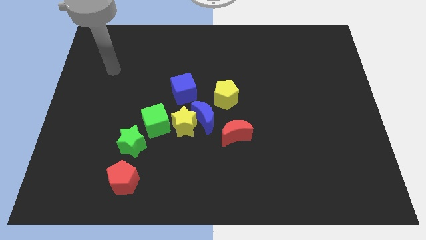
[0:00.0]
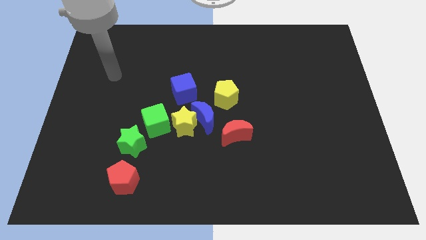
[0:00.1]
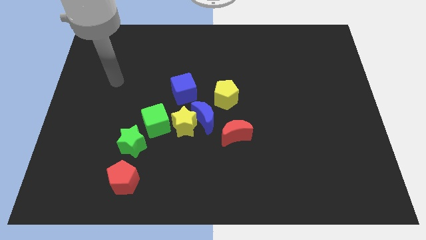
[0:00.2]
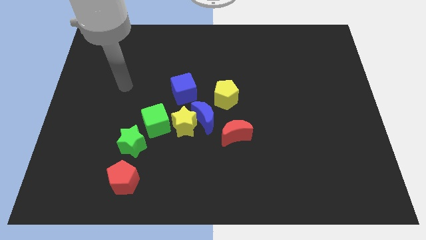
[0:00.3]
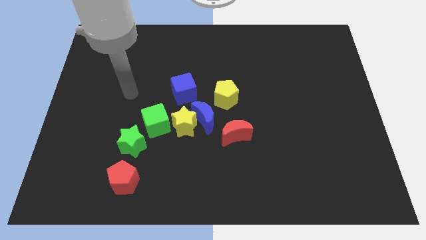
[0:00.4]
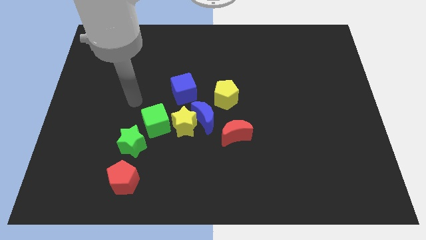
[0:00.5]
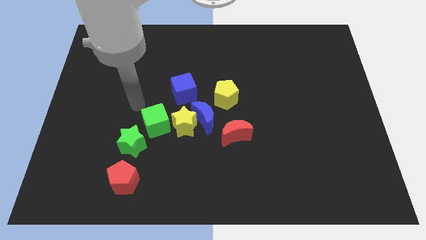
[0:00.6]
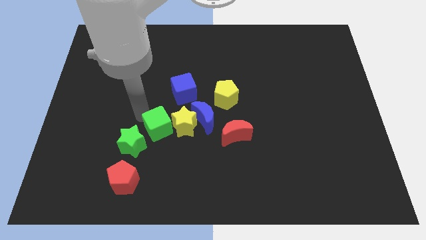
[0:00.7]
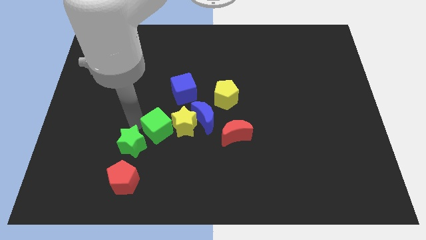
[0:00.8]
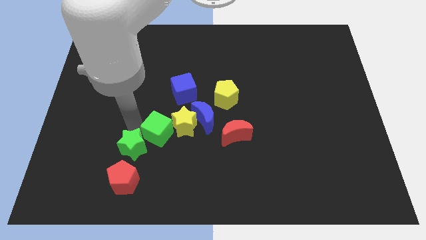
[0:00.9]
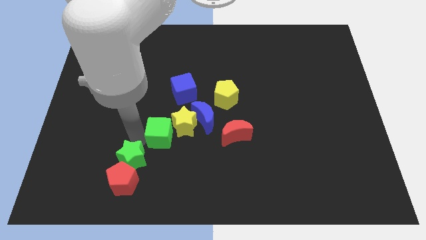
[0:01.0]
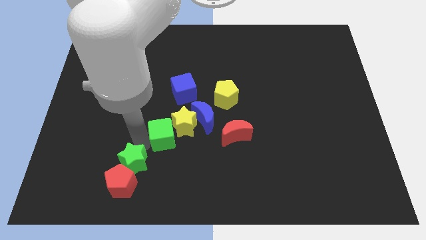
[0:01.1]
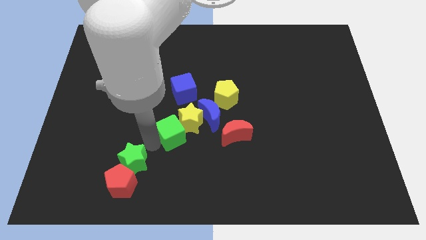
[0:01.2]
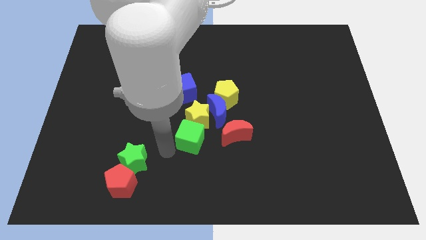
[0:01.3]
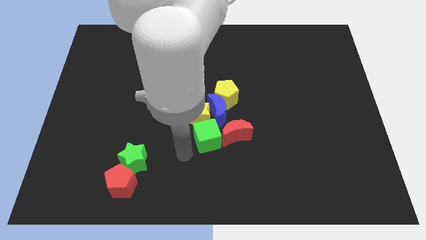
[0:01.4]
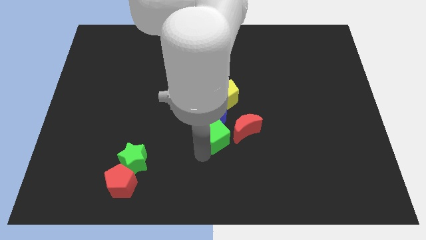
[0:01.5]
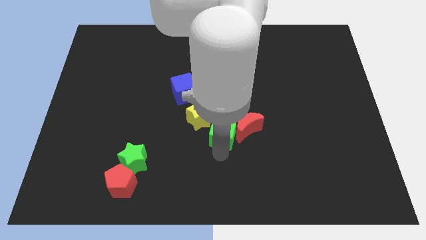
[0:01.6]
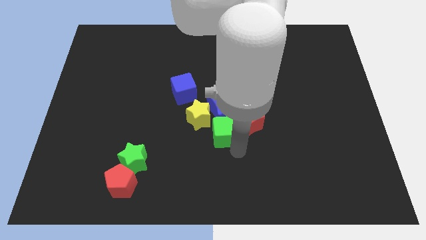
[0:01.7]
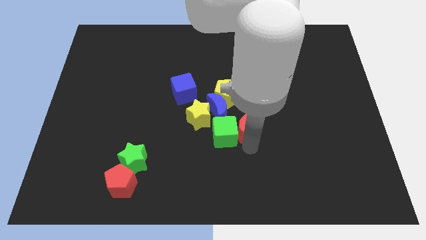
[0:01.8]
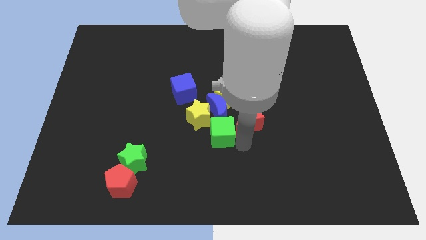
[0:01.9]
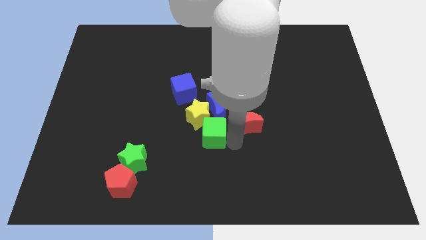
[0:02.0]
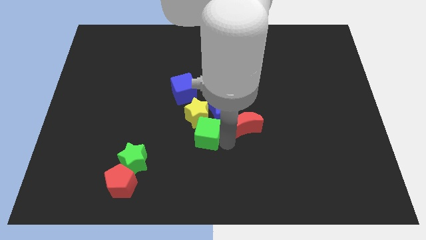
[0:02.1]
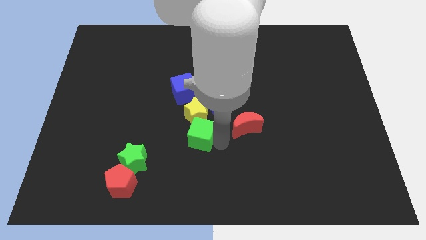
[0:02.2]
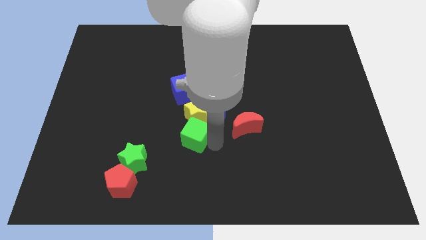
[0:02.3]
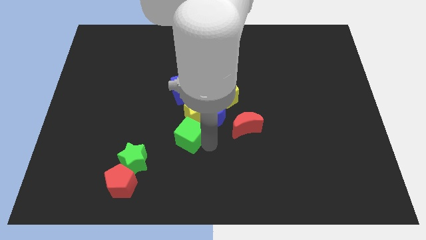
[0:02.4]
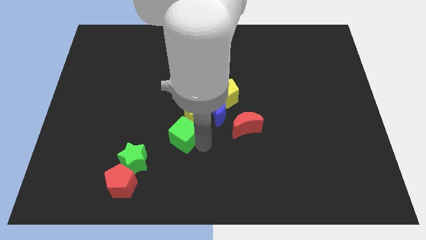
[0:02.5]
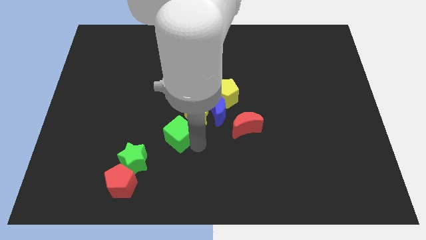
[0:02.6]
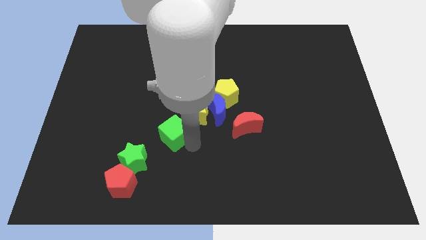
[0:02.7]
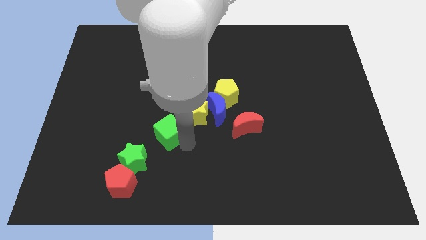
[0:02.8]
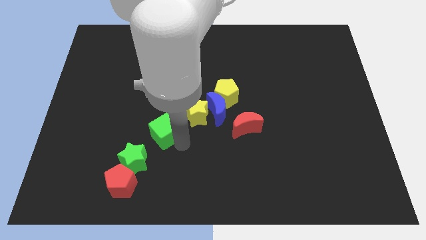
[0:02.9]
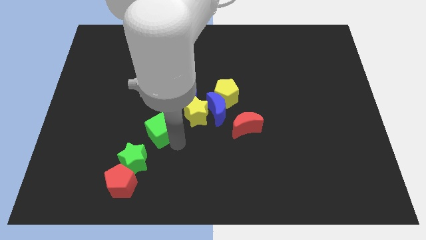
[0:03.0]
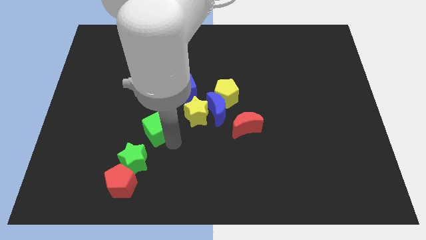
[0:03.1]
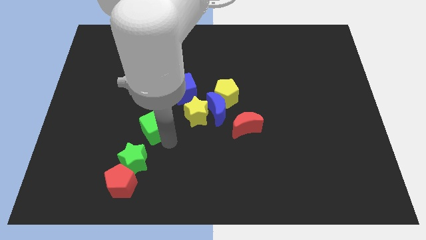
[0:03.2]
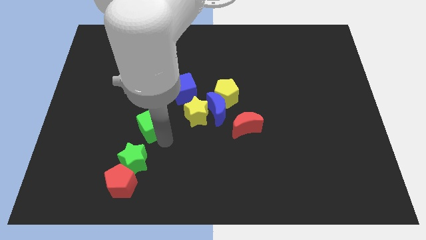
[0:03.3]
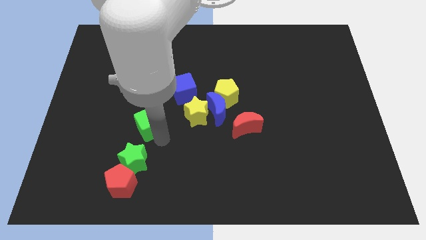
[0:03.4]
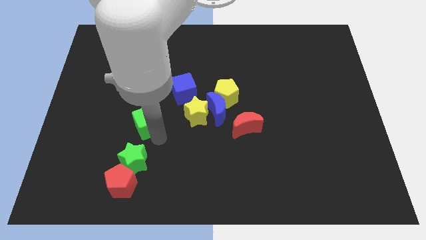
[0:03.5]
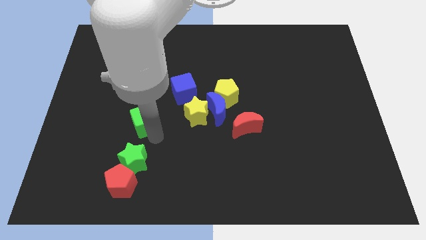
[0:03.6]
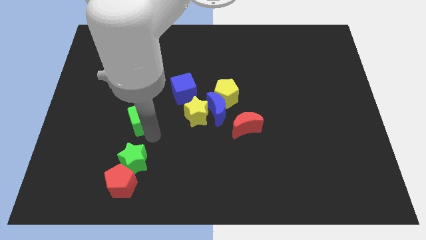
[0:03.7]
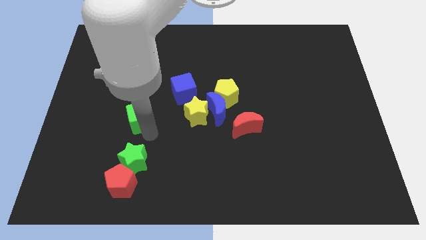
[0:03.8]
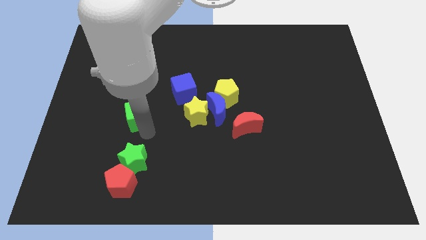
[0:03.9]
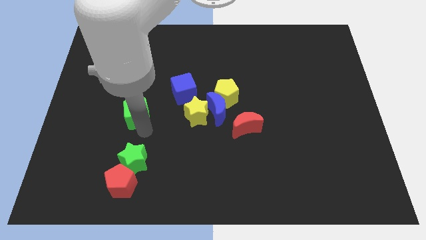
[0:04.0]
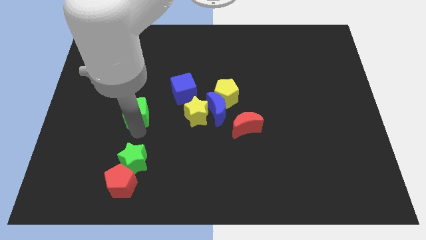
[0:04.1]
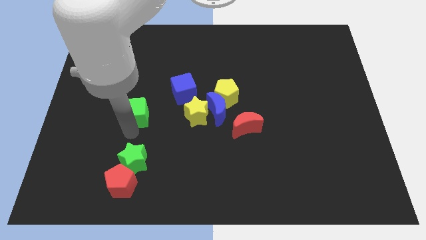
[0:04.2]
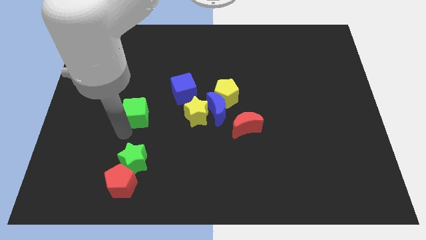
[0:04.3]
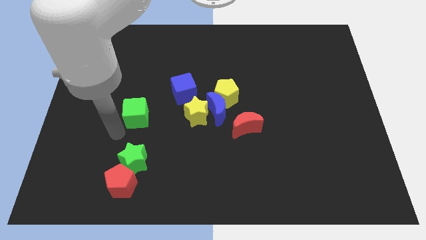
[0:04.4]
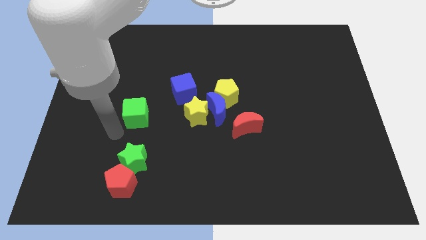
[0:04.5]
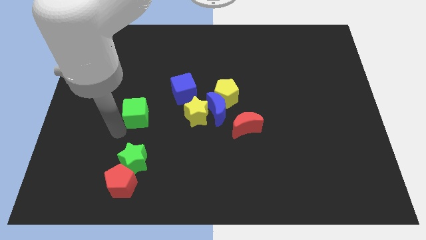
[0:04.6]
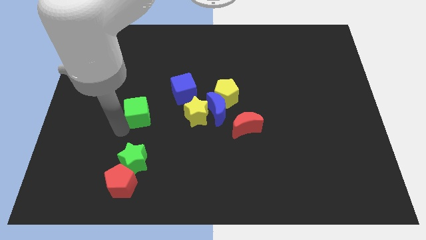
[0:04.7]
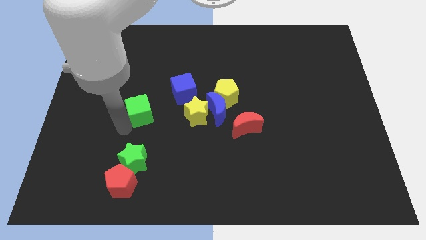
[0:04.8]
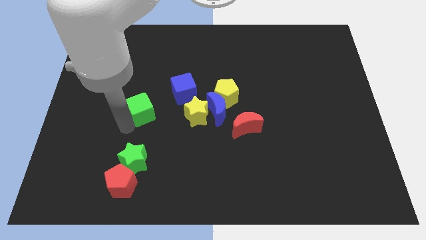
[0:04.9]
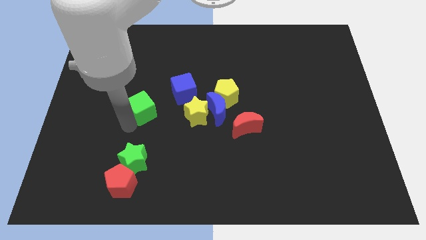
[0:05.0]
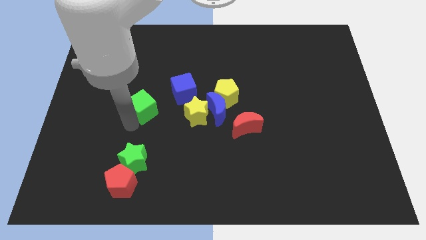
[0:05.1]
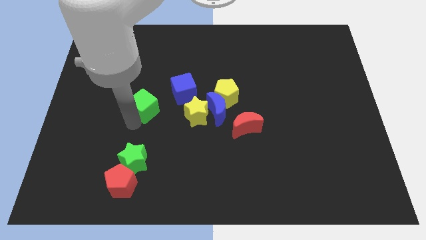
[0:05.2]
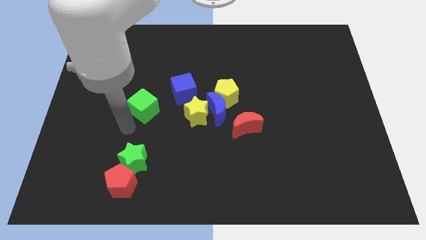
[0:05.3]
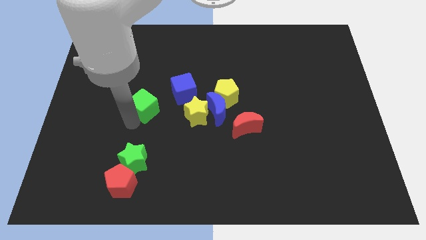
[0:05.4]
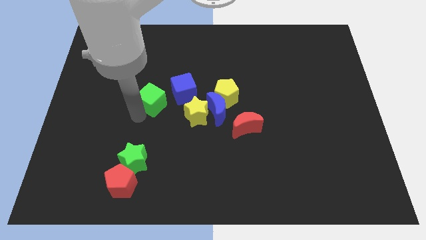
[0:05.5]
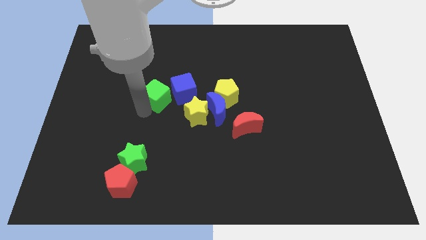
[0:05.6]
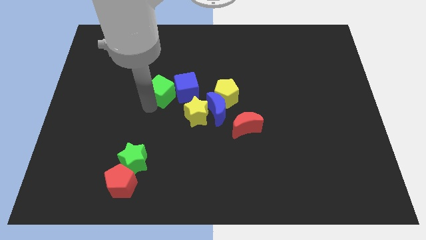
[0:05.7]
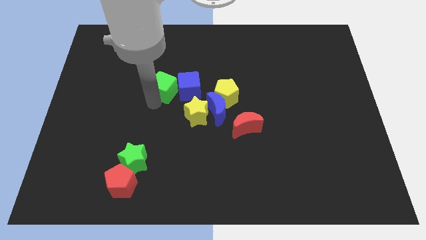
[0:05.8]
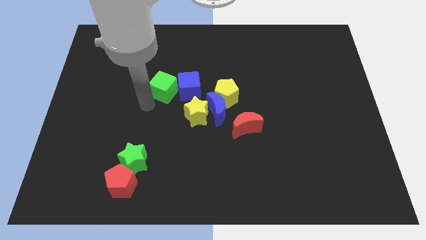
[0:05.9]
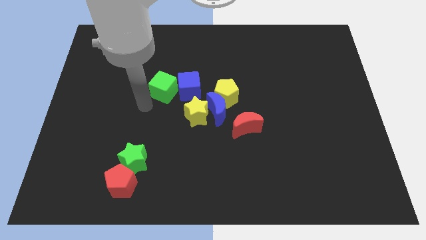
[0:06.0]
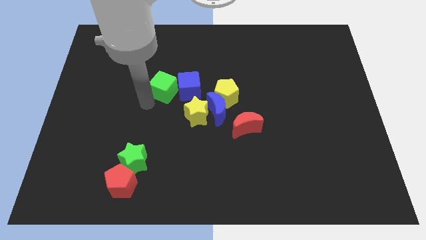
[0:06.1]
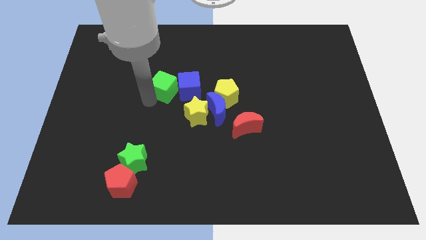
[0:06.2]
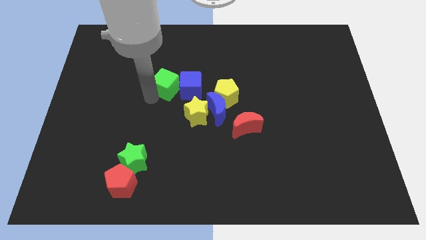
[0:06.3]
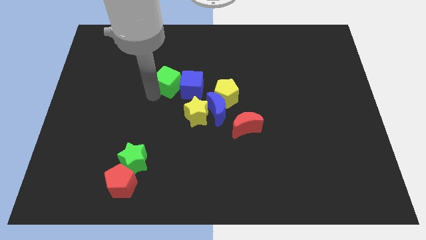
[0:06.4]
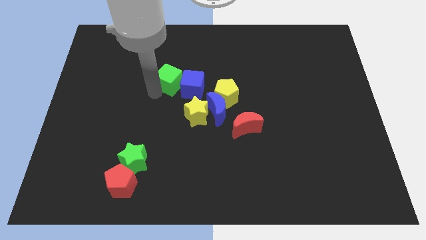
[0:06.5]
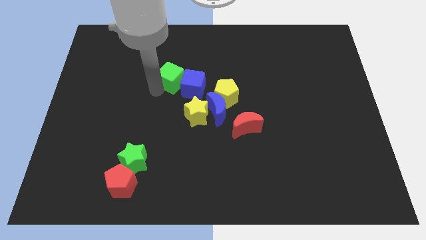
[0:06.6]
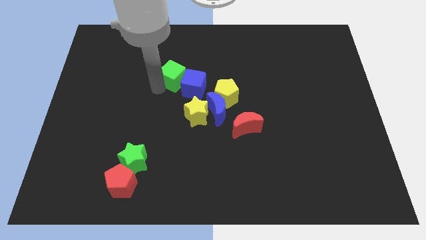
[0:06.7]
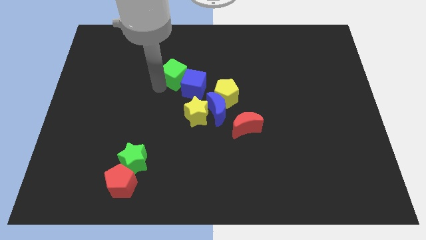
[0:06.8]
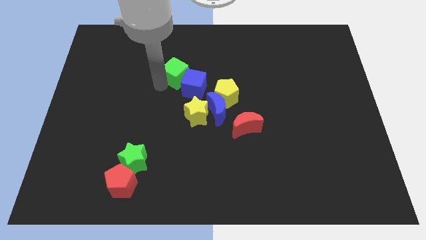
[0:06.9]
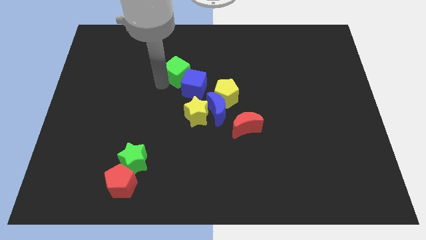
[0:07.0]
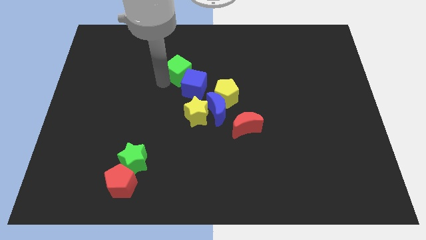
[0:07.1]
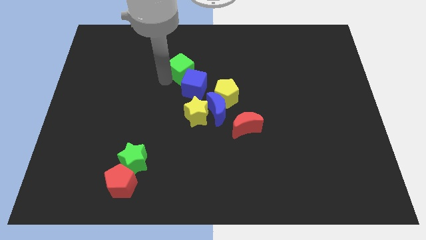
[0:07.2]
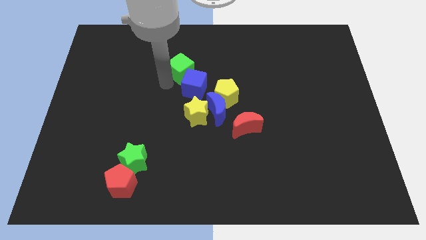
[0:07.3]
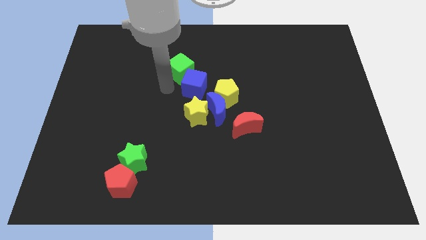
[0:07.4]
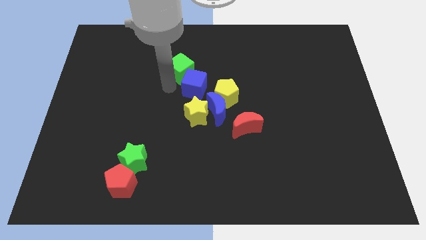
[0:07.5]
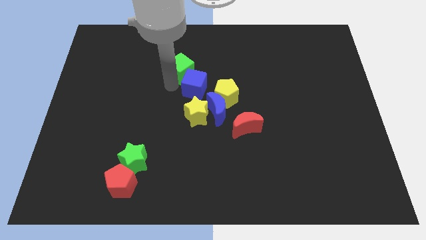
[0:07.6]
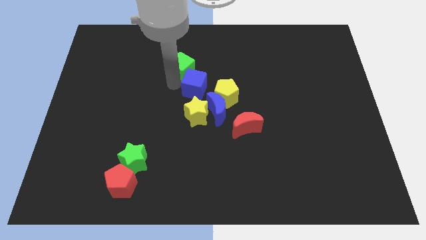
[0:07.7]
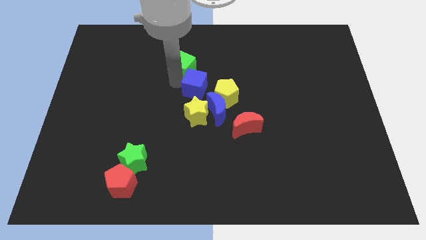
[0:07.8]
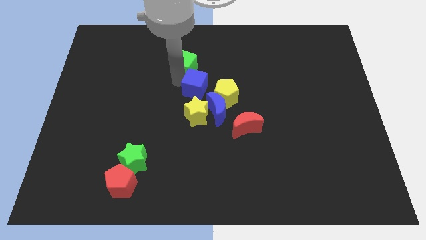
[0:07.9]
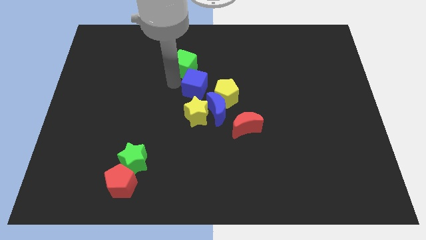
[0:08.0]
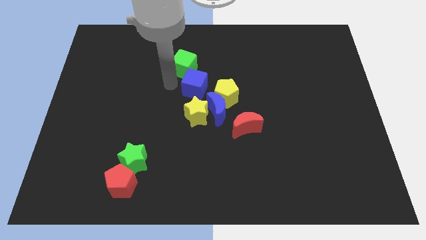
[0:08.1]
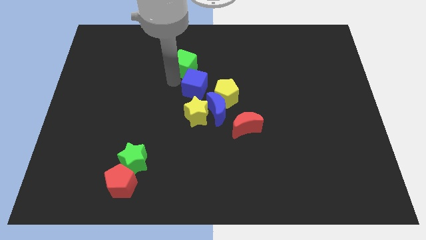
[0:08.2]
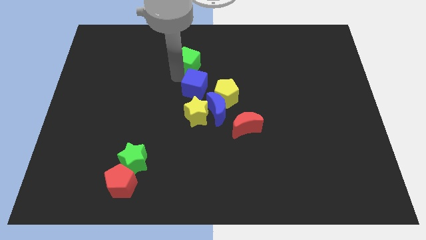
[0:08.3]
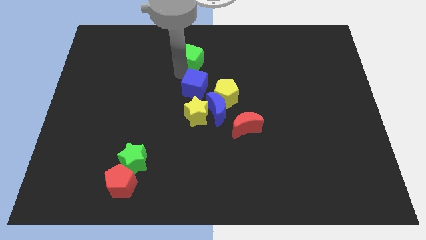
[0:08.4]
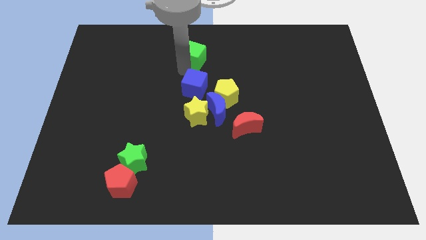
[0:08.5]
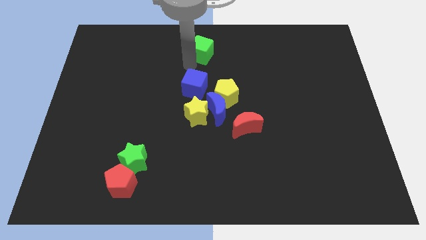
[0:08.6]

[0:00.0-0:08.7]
slide the green cube to the top side
